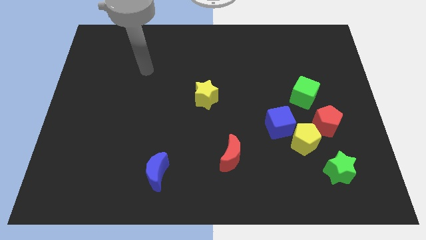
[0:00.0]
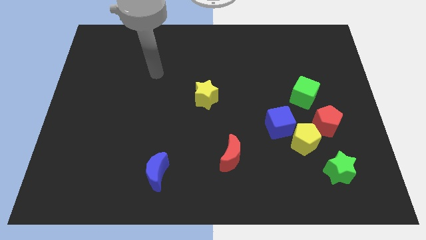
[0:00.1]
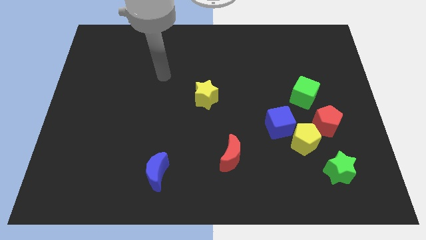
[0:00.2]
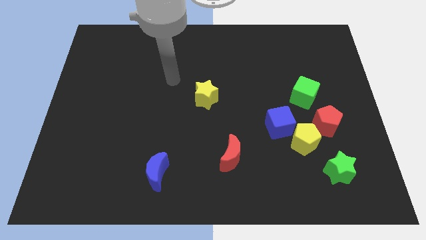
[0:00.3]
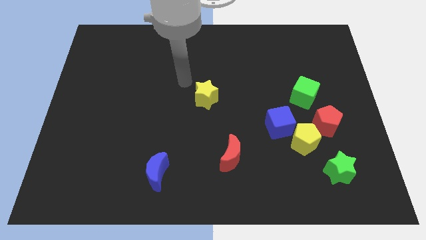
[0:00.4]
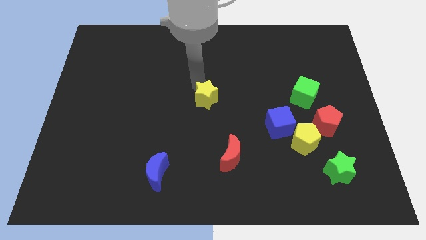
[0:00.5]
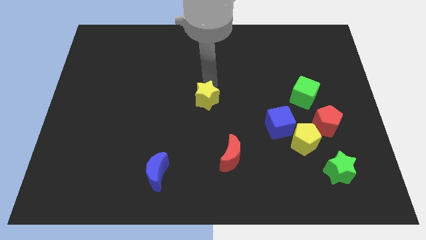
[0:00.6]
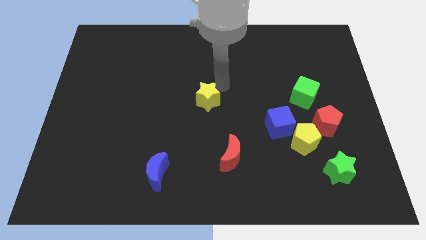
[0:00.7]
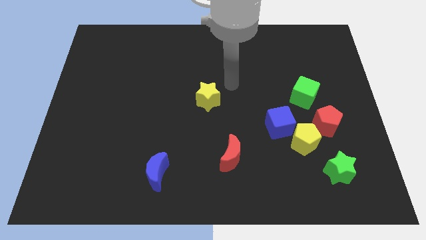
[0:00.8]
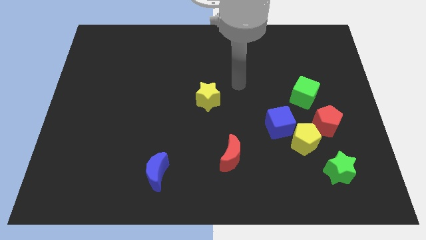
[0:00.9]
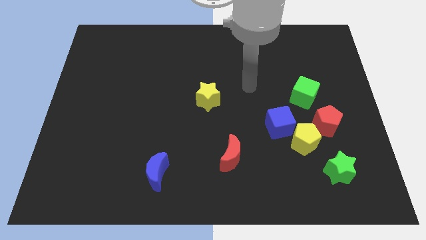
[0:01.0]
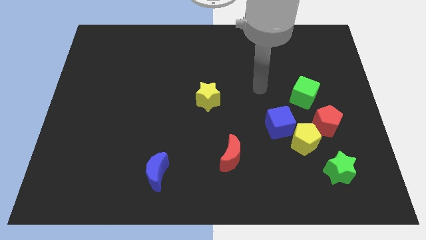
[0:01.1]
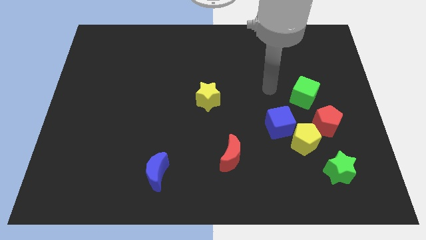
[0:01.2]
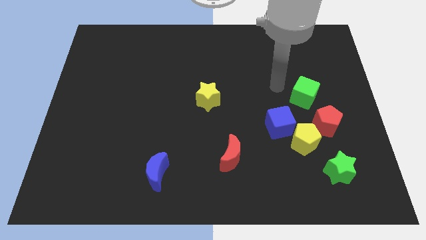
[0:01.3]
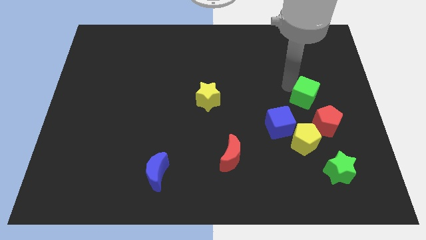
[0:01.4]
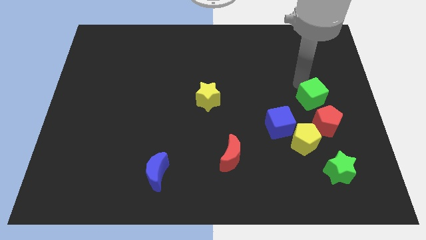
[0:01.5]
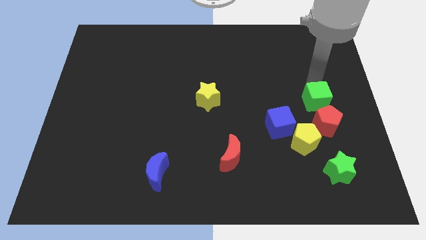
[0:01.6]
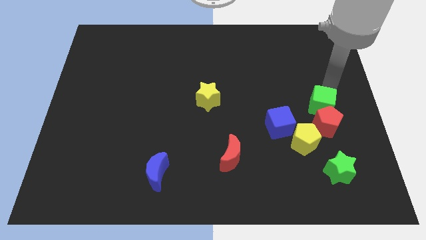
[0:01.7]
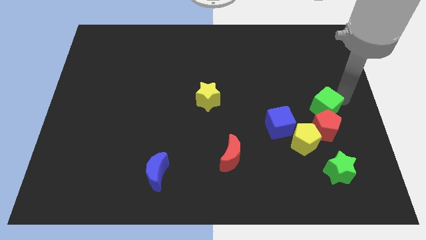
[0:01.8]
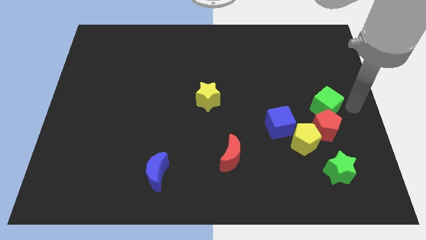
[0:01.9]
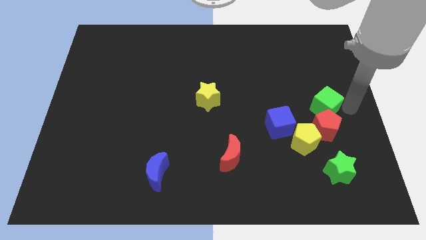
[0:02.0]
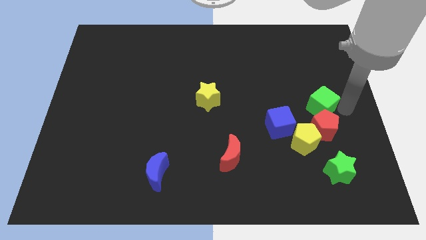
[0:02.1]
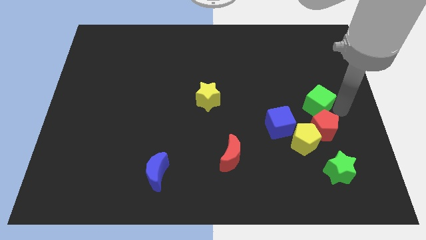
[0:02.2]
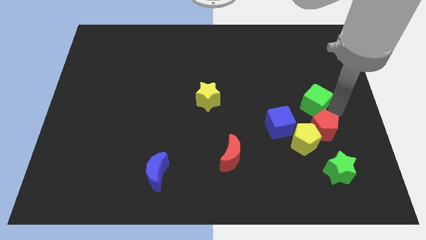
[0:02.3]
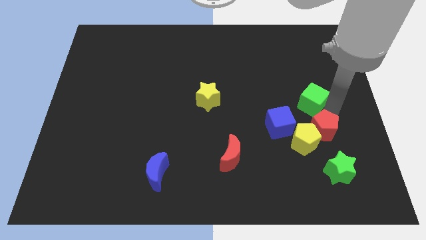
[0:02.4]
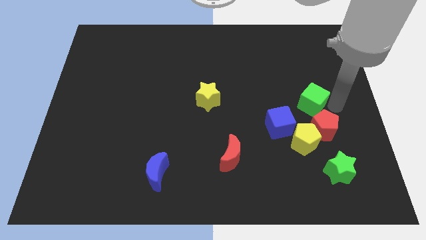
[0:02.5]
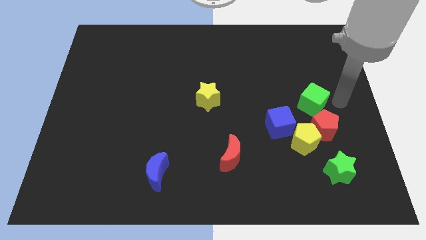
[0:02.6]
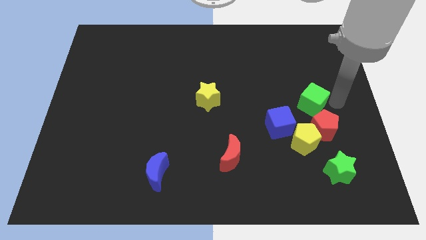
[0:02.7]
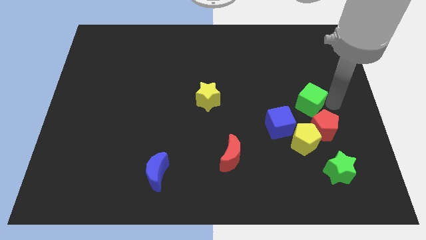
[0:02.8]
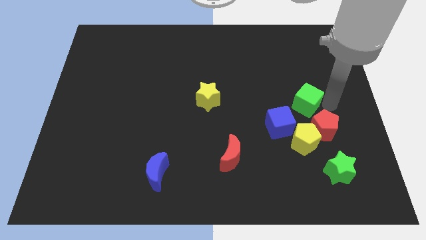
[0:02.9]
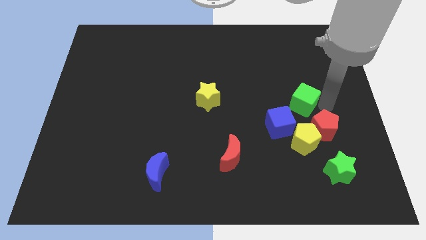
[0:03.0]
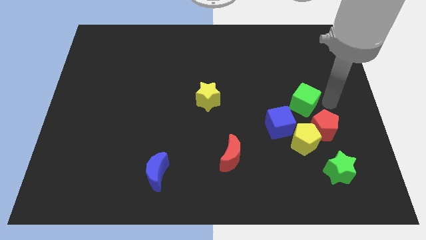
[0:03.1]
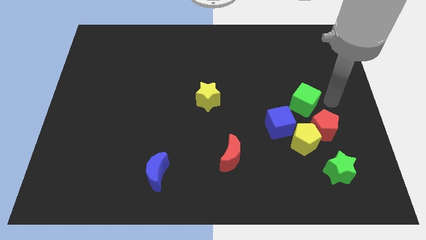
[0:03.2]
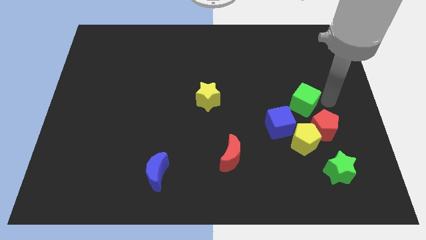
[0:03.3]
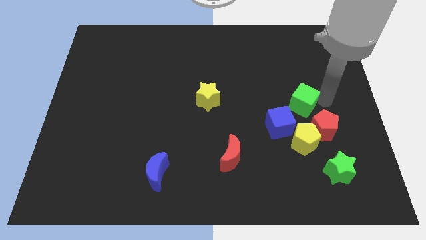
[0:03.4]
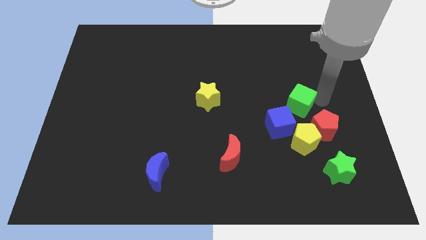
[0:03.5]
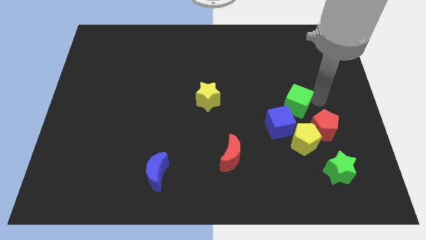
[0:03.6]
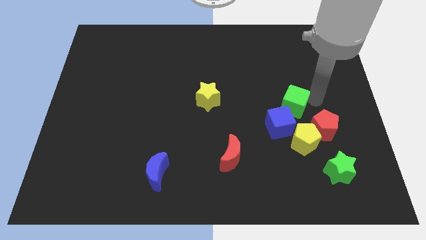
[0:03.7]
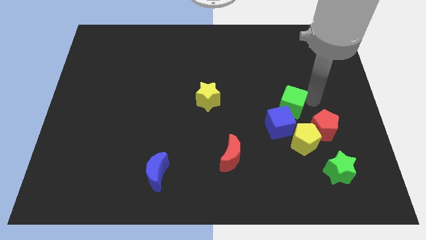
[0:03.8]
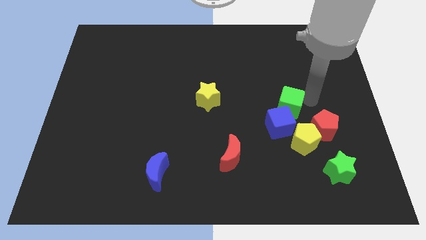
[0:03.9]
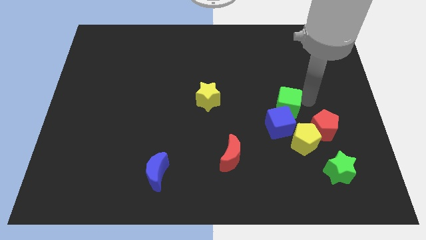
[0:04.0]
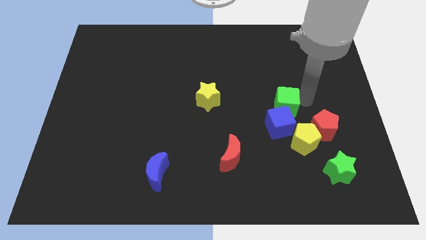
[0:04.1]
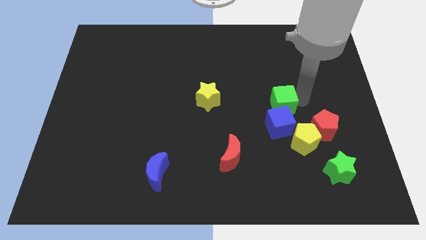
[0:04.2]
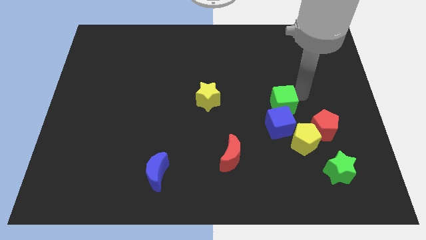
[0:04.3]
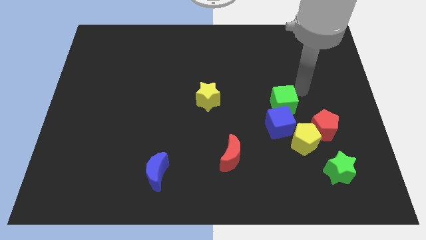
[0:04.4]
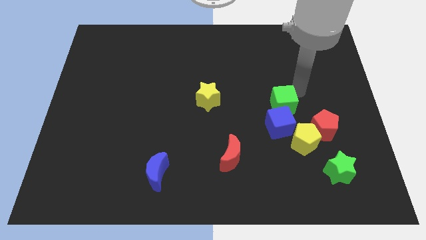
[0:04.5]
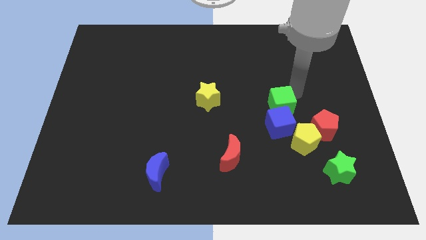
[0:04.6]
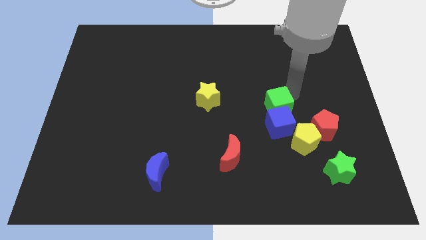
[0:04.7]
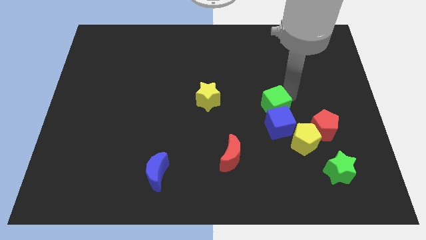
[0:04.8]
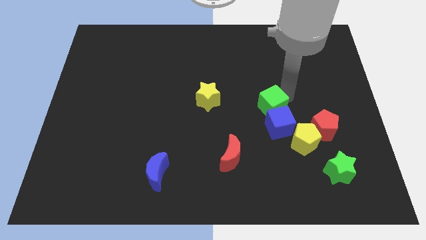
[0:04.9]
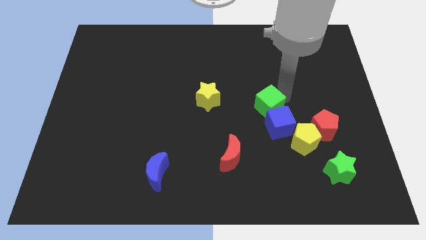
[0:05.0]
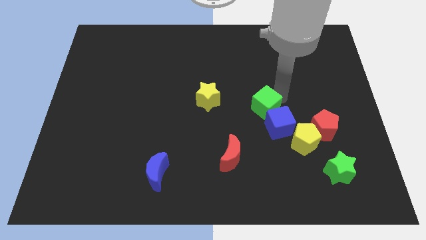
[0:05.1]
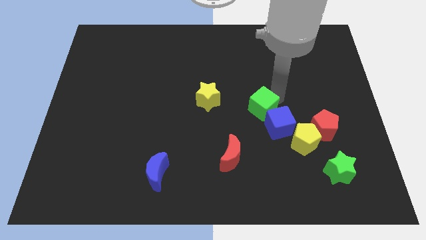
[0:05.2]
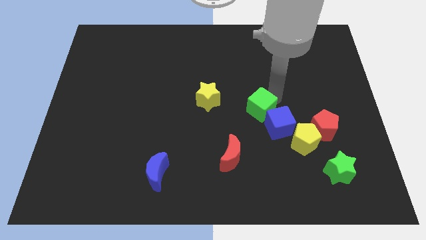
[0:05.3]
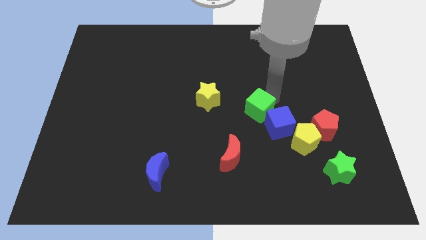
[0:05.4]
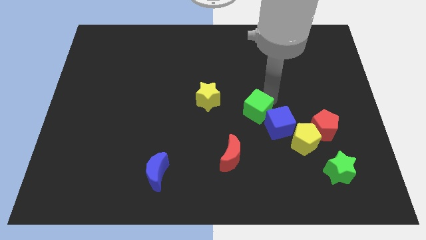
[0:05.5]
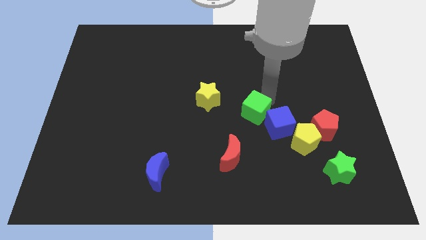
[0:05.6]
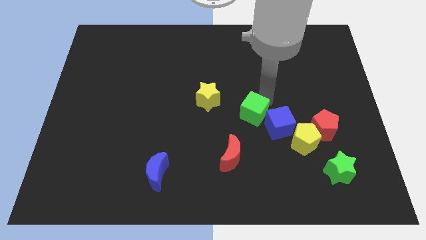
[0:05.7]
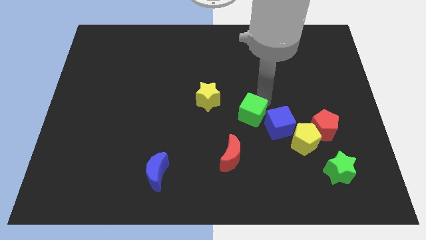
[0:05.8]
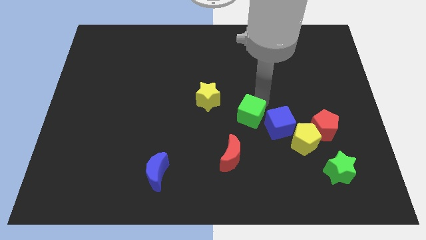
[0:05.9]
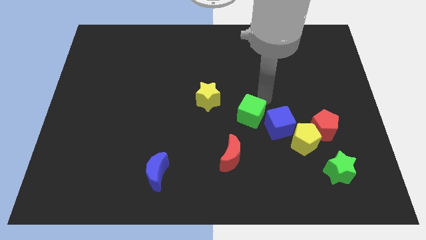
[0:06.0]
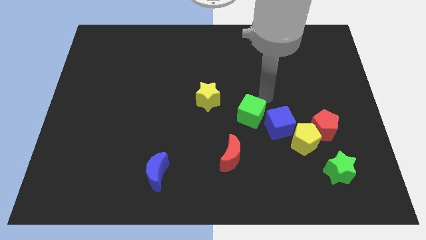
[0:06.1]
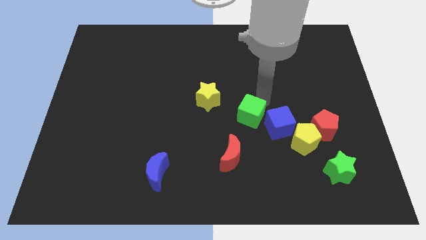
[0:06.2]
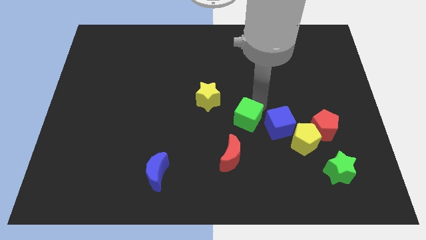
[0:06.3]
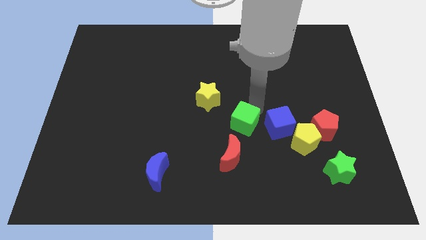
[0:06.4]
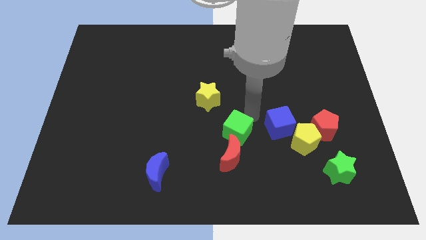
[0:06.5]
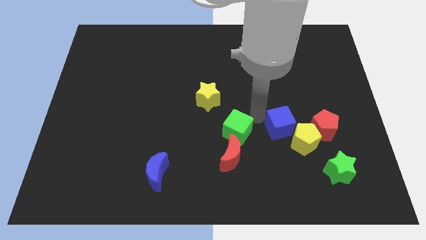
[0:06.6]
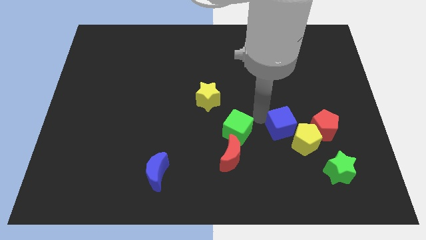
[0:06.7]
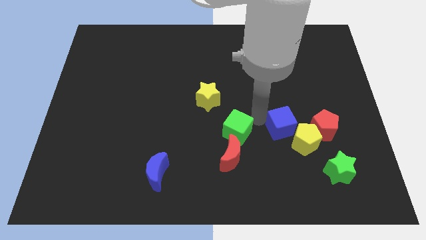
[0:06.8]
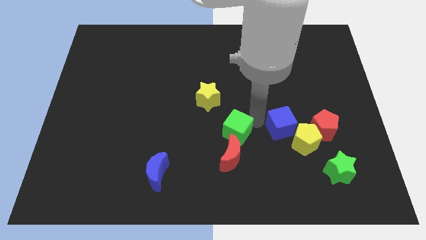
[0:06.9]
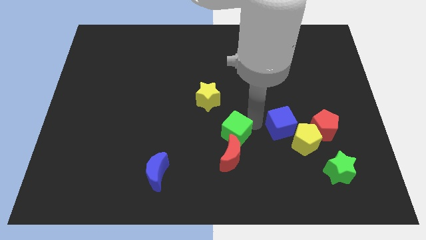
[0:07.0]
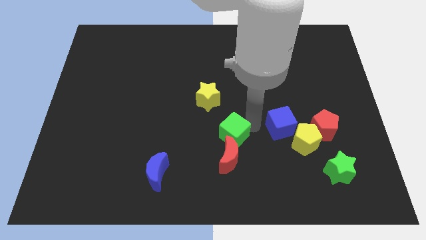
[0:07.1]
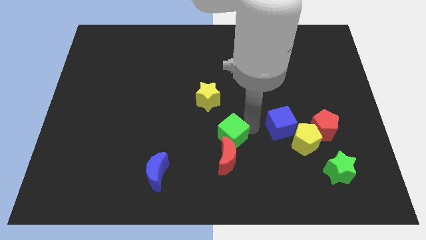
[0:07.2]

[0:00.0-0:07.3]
slide the green cube downwards and then to the left

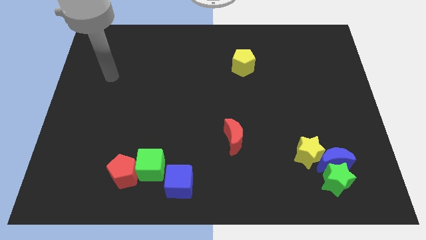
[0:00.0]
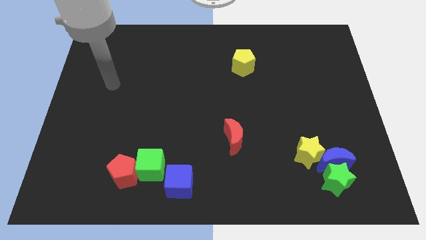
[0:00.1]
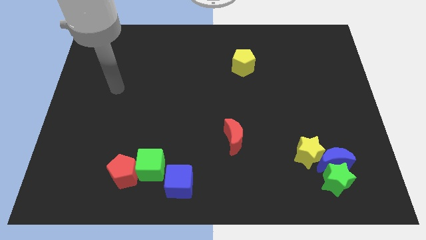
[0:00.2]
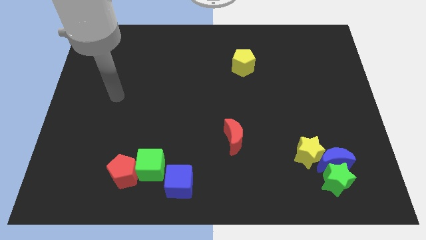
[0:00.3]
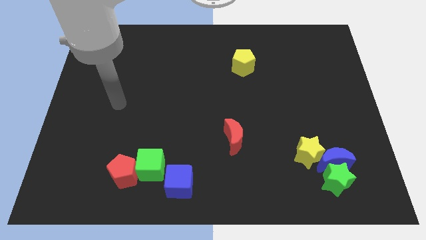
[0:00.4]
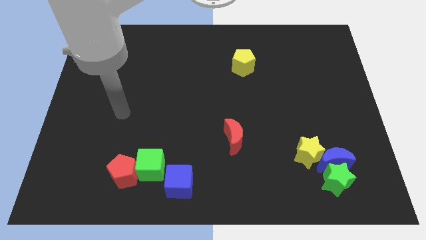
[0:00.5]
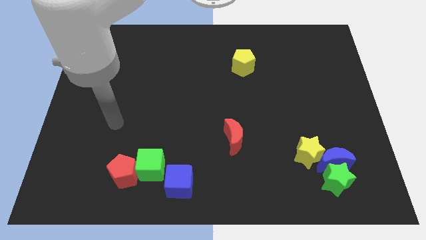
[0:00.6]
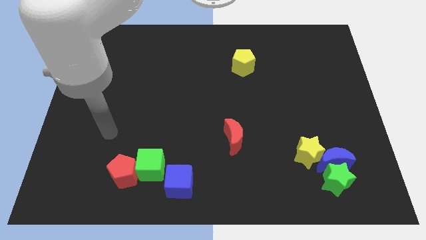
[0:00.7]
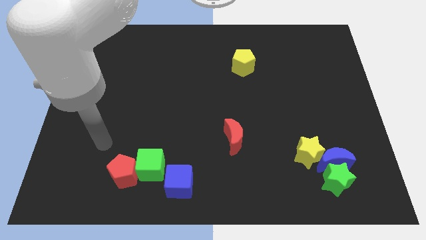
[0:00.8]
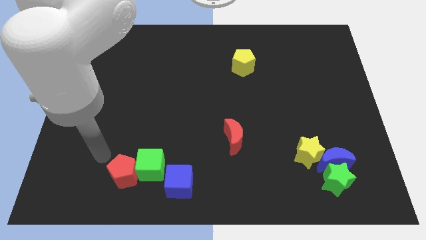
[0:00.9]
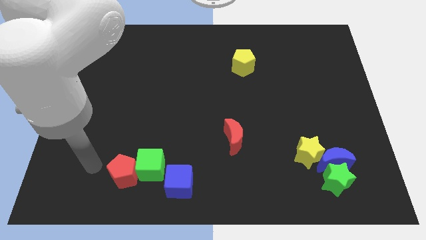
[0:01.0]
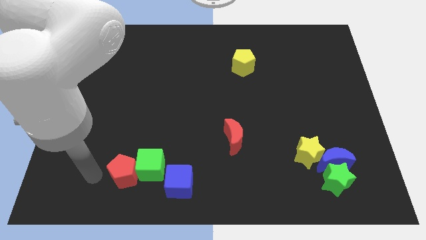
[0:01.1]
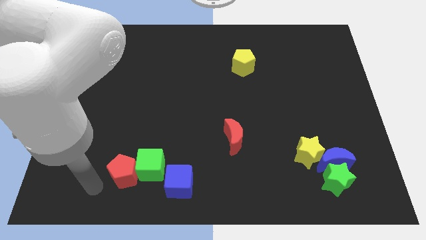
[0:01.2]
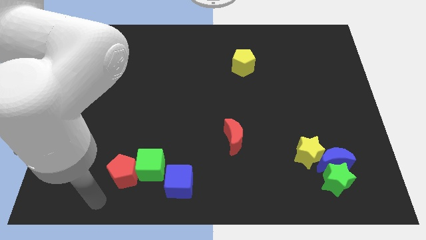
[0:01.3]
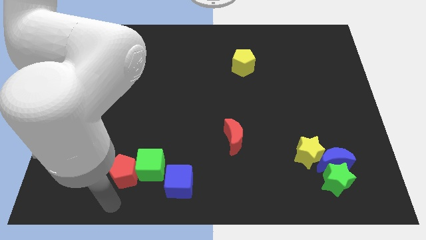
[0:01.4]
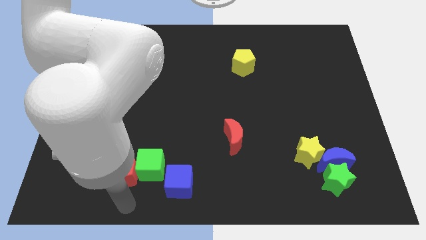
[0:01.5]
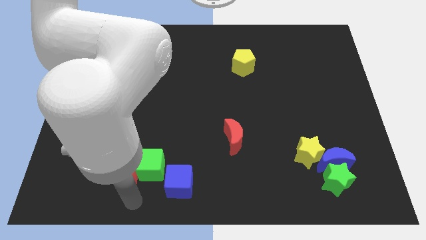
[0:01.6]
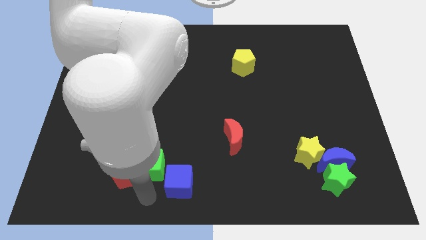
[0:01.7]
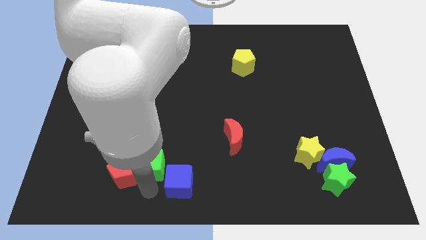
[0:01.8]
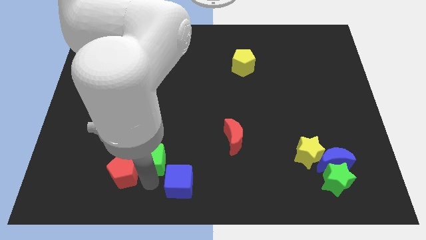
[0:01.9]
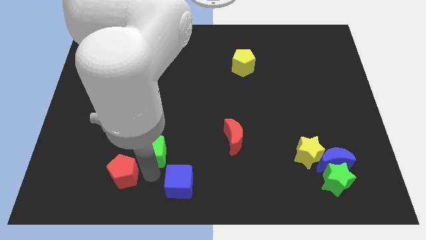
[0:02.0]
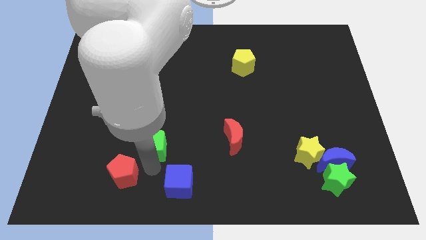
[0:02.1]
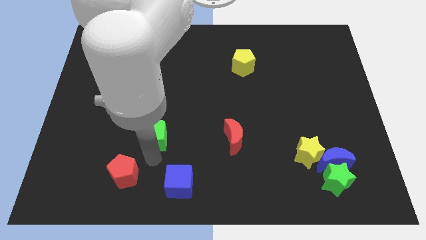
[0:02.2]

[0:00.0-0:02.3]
move the green cube a little bit up
